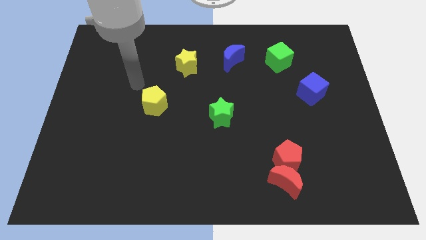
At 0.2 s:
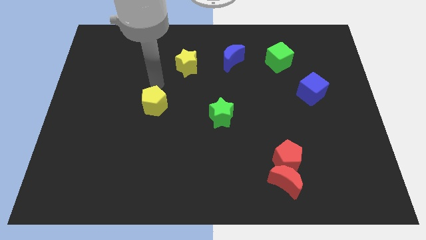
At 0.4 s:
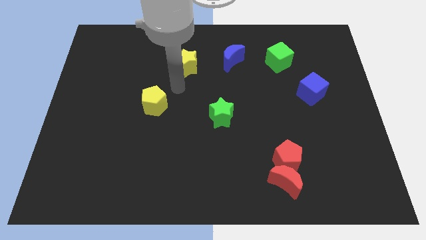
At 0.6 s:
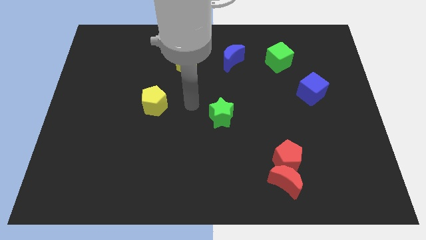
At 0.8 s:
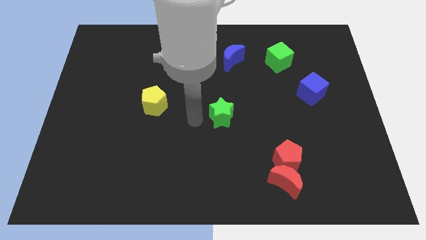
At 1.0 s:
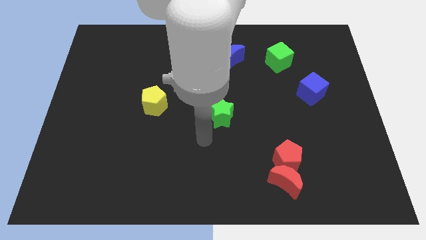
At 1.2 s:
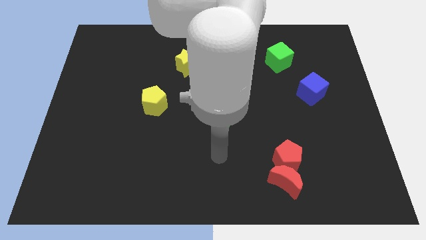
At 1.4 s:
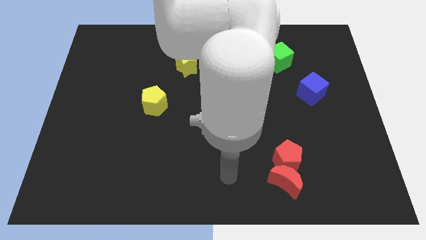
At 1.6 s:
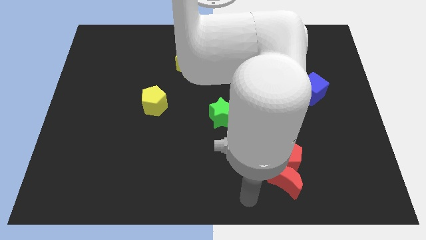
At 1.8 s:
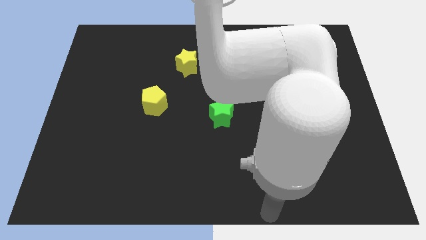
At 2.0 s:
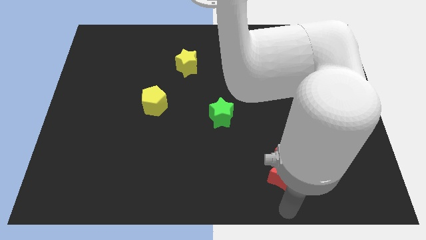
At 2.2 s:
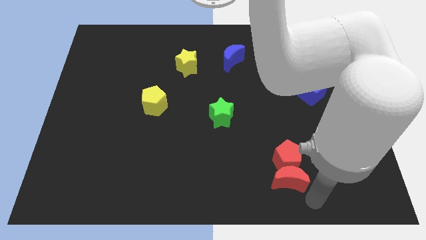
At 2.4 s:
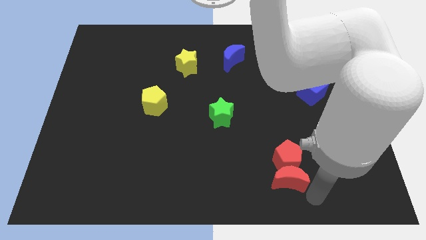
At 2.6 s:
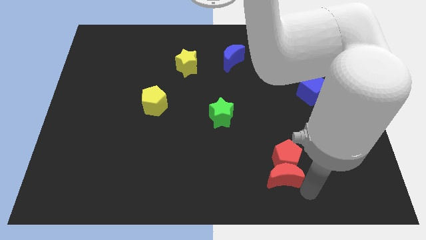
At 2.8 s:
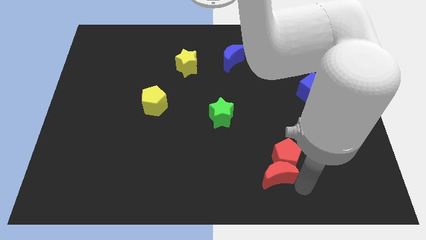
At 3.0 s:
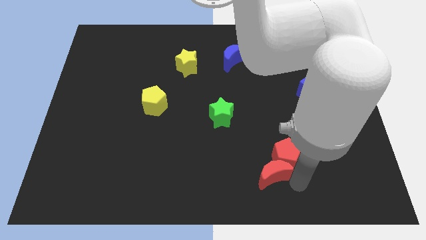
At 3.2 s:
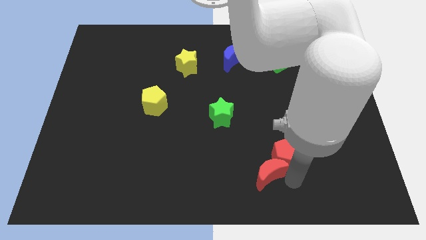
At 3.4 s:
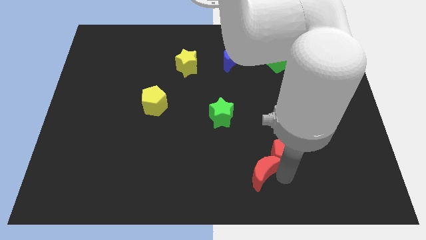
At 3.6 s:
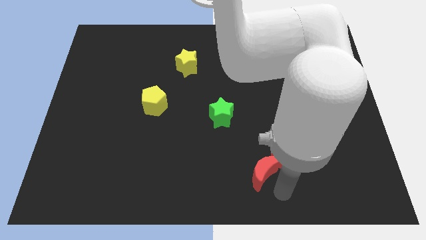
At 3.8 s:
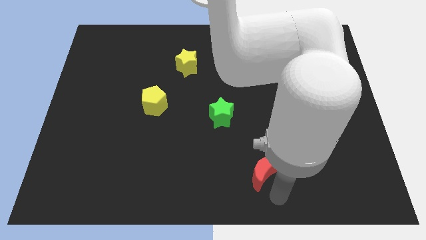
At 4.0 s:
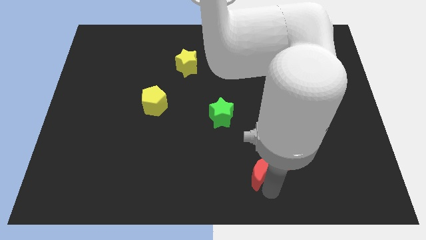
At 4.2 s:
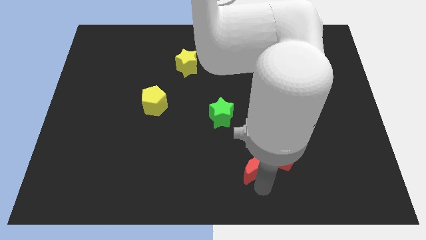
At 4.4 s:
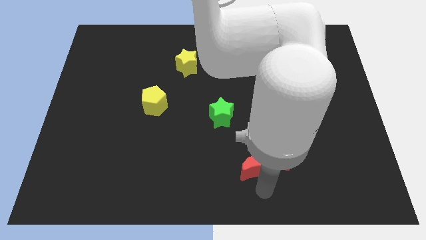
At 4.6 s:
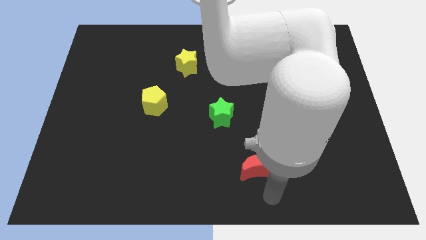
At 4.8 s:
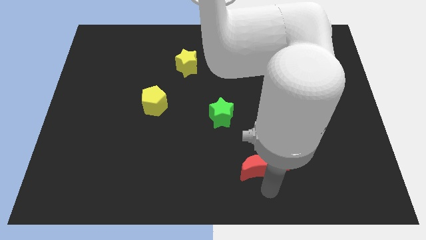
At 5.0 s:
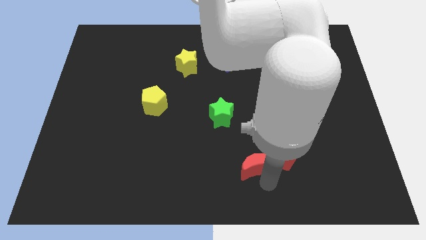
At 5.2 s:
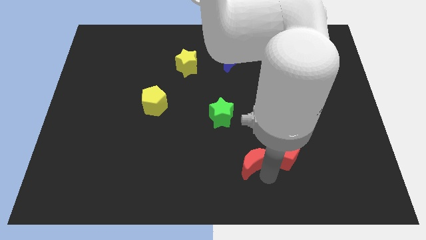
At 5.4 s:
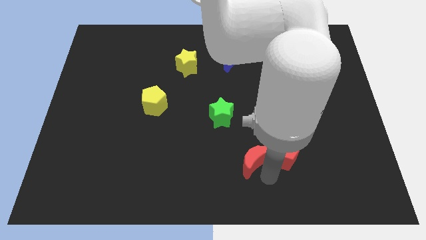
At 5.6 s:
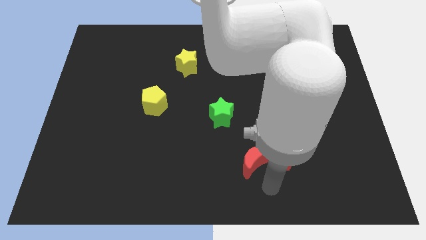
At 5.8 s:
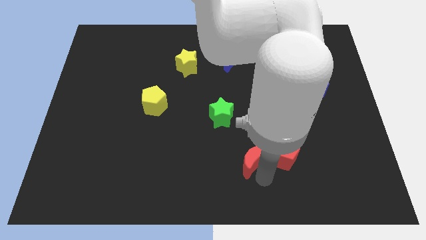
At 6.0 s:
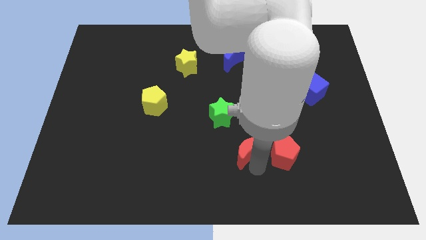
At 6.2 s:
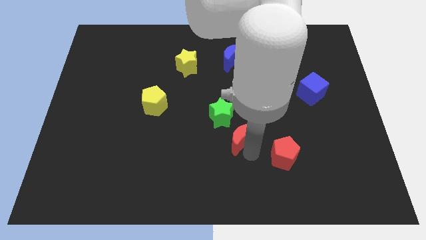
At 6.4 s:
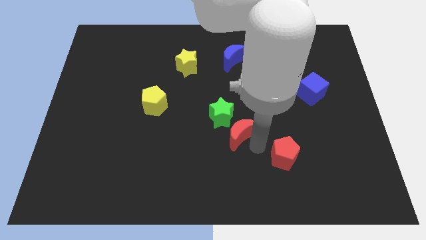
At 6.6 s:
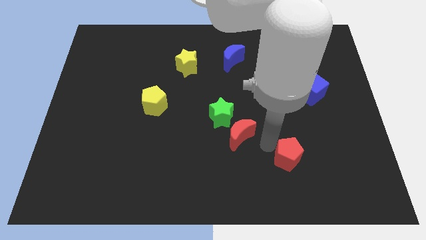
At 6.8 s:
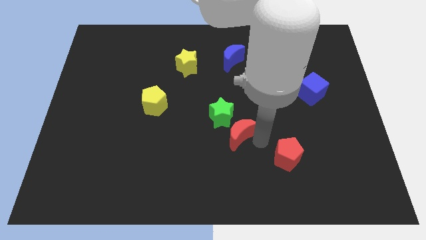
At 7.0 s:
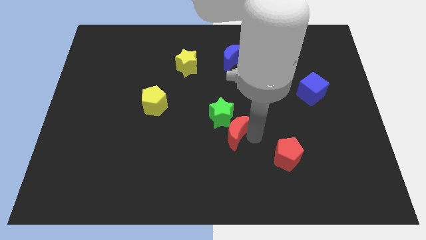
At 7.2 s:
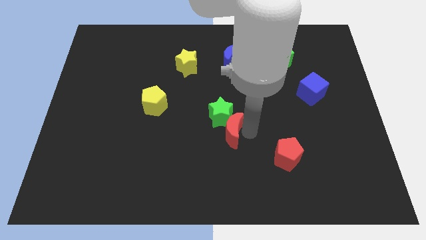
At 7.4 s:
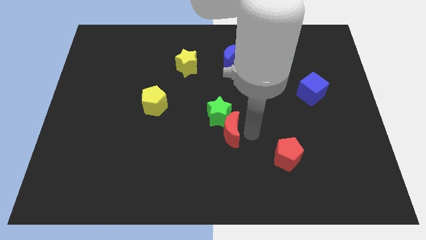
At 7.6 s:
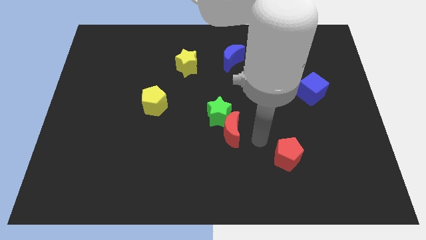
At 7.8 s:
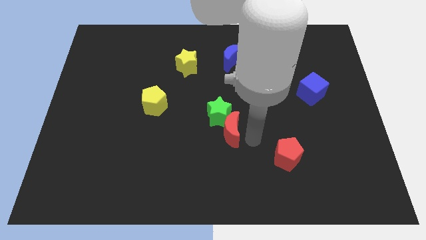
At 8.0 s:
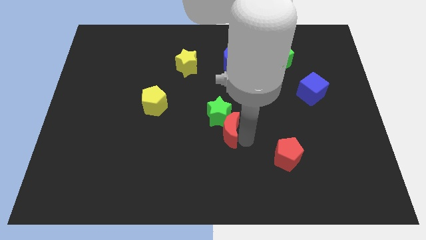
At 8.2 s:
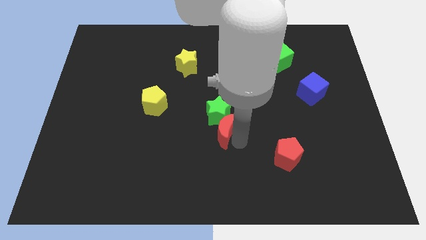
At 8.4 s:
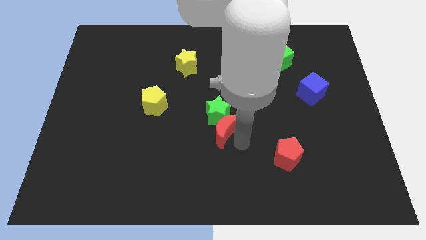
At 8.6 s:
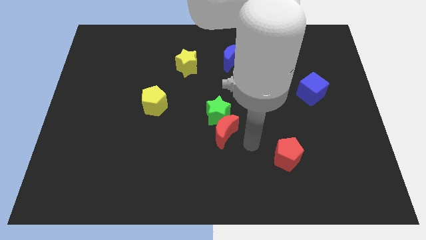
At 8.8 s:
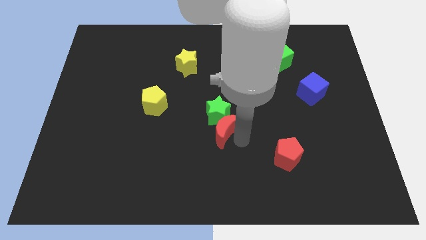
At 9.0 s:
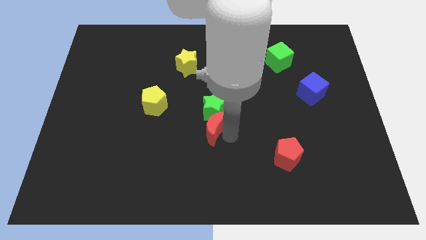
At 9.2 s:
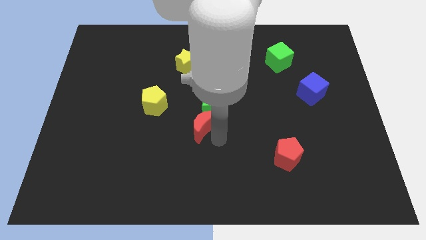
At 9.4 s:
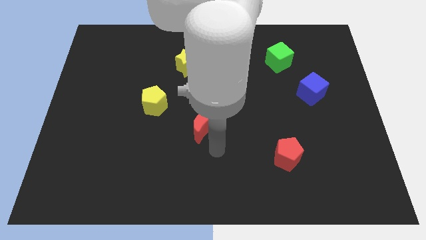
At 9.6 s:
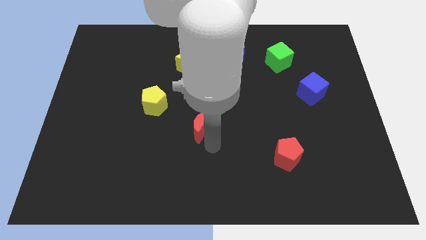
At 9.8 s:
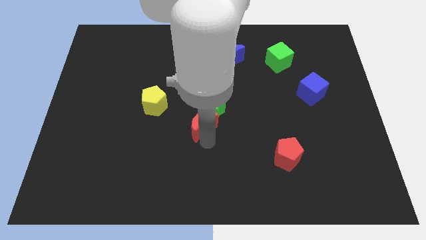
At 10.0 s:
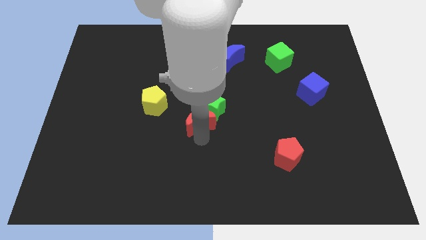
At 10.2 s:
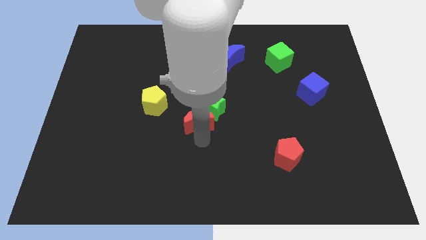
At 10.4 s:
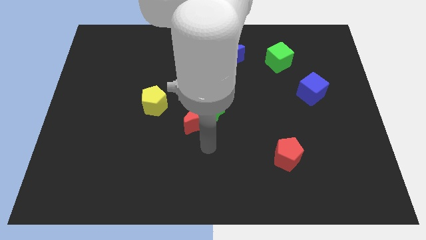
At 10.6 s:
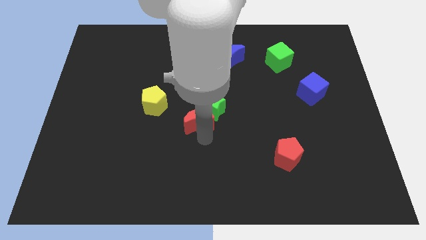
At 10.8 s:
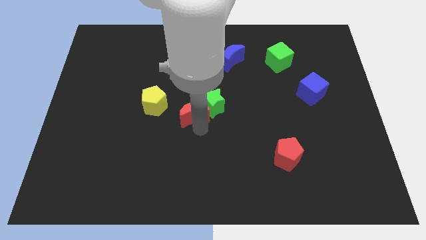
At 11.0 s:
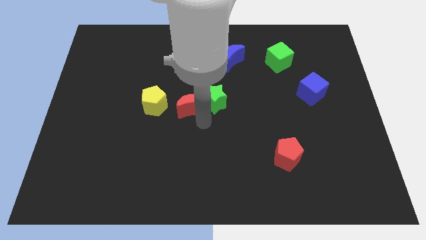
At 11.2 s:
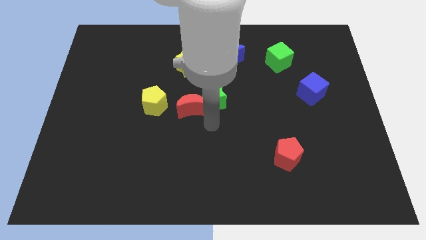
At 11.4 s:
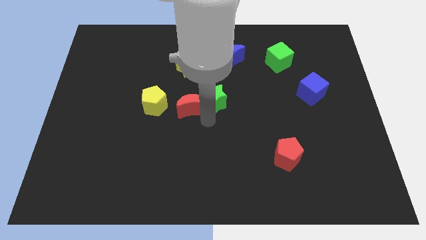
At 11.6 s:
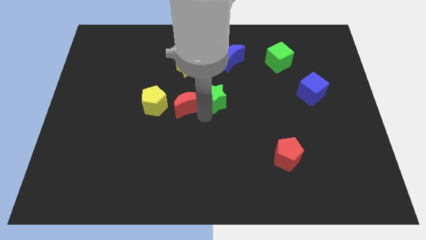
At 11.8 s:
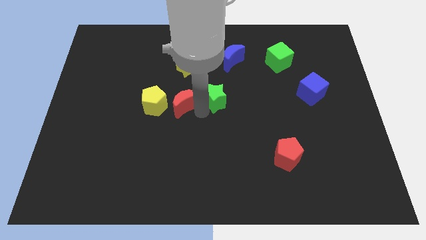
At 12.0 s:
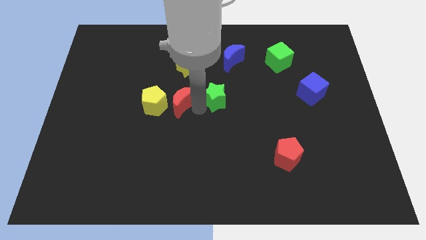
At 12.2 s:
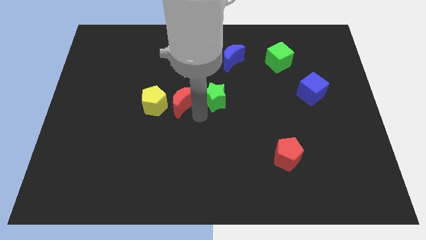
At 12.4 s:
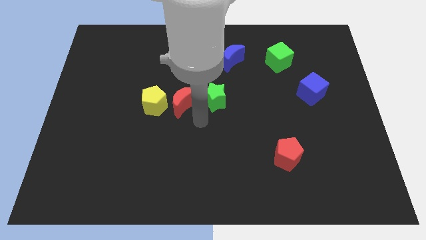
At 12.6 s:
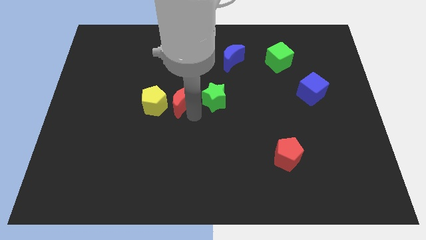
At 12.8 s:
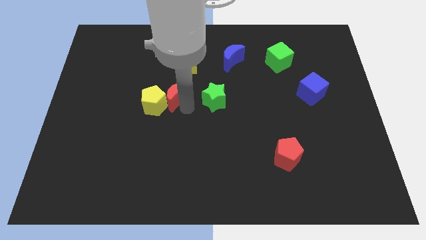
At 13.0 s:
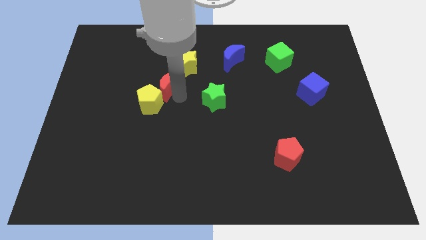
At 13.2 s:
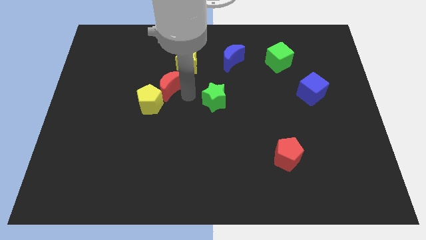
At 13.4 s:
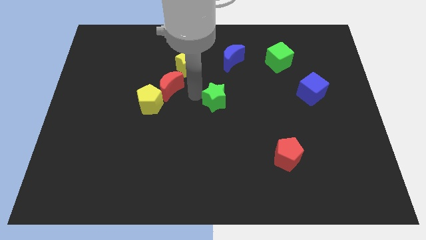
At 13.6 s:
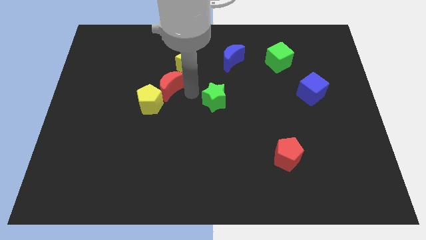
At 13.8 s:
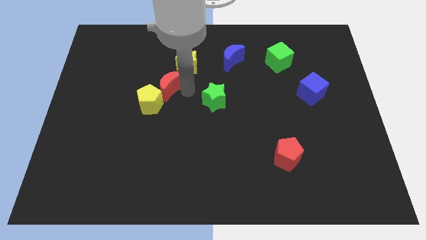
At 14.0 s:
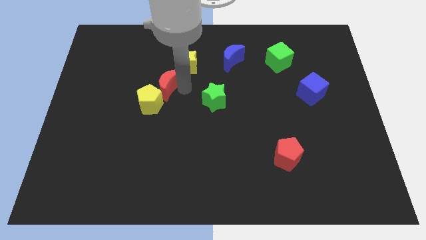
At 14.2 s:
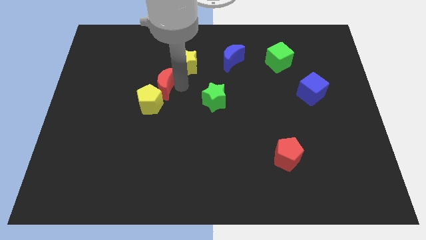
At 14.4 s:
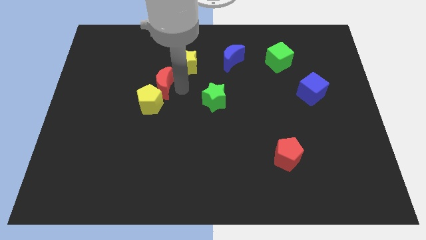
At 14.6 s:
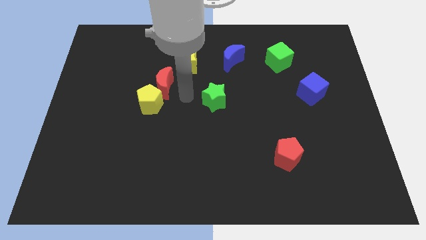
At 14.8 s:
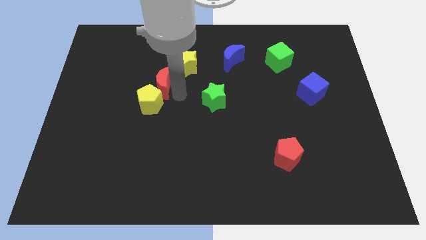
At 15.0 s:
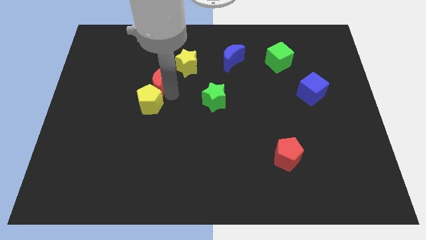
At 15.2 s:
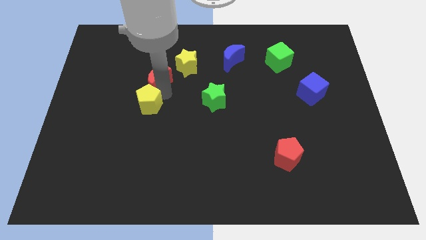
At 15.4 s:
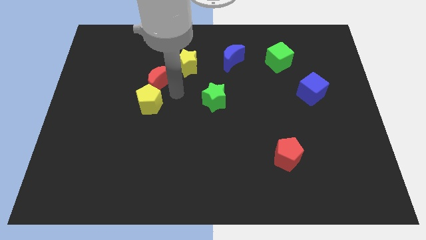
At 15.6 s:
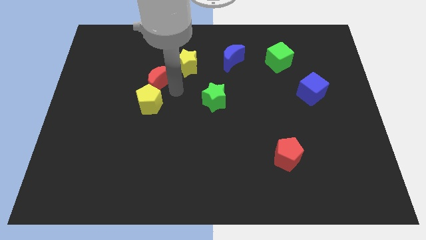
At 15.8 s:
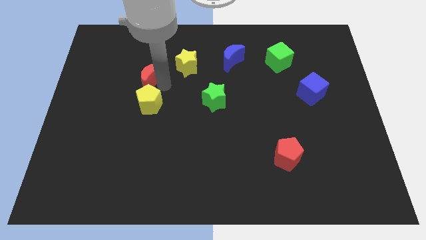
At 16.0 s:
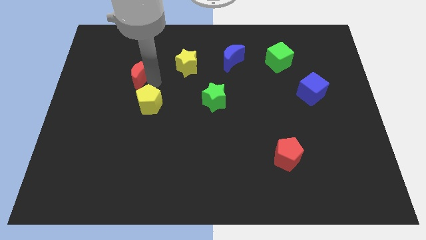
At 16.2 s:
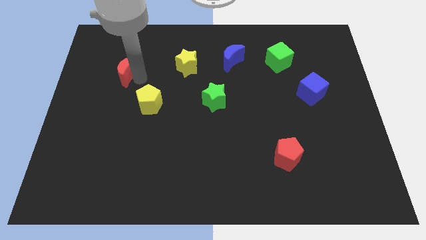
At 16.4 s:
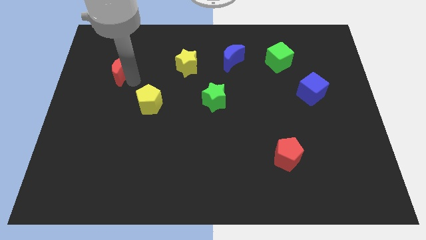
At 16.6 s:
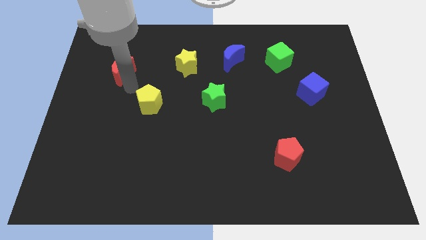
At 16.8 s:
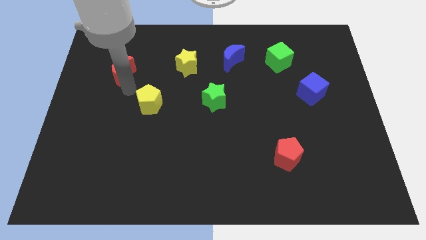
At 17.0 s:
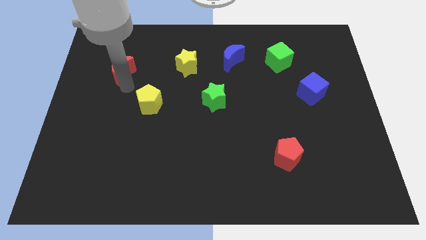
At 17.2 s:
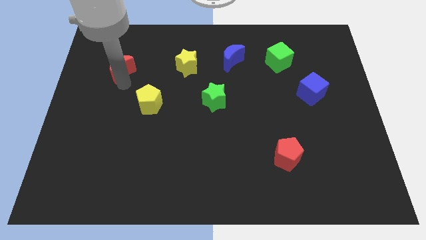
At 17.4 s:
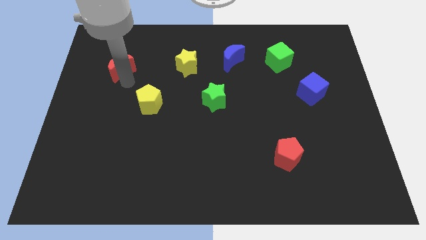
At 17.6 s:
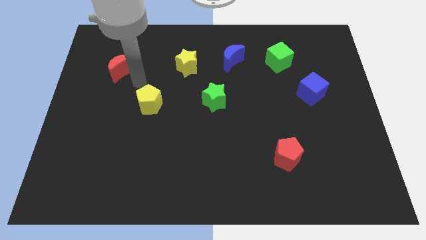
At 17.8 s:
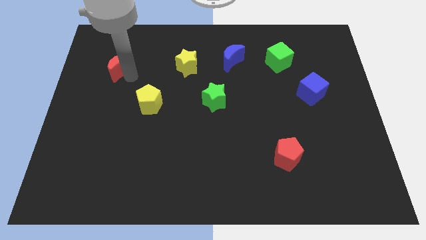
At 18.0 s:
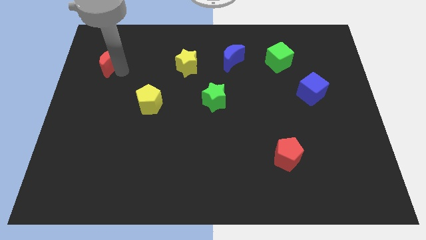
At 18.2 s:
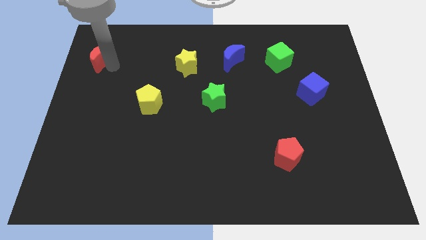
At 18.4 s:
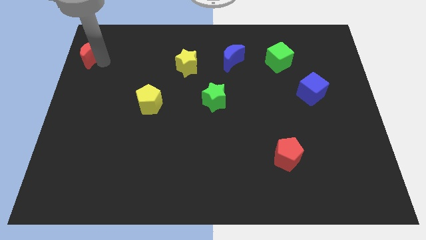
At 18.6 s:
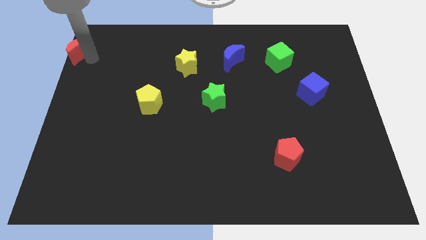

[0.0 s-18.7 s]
slide the red moon to the top left
